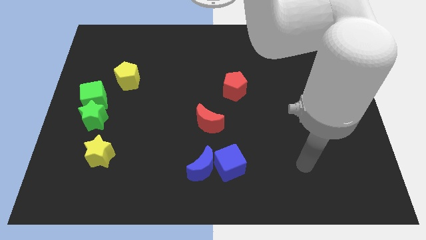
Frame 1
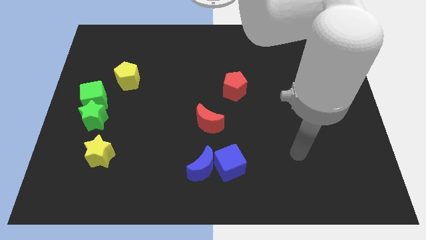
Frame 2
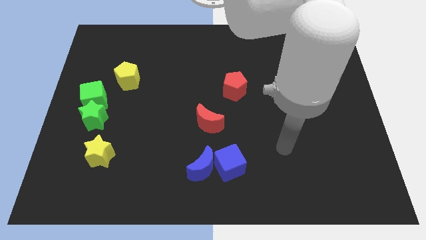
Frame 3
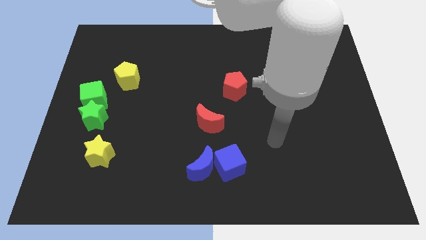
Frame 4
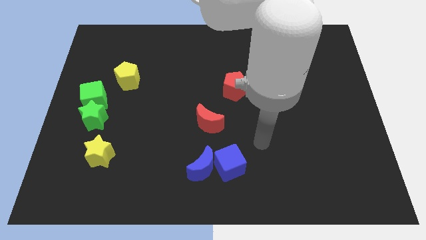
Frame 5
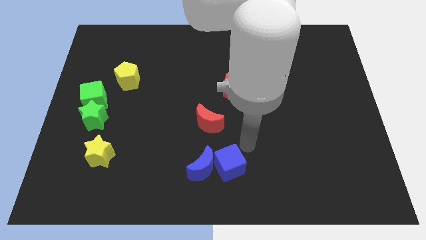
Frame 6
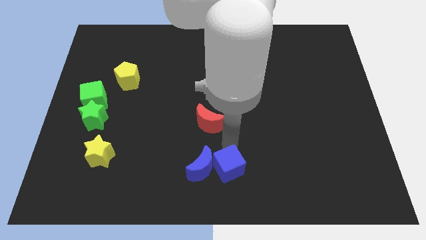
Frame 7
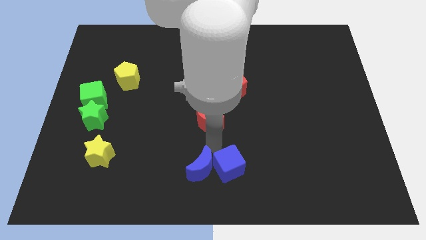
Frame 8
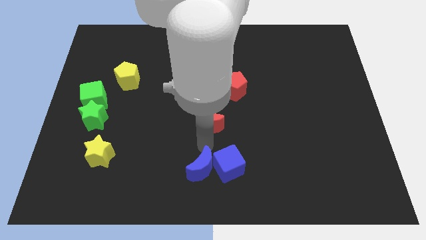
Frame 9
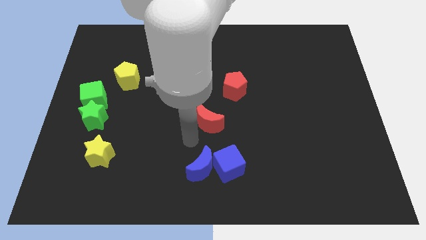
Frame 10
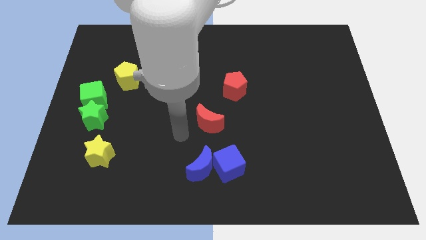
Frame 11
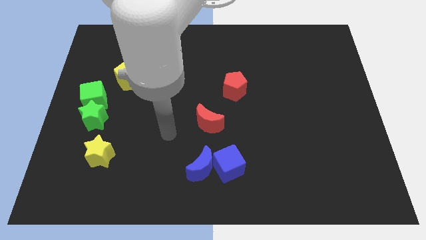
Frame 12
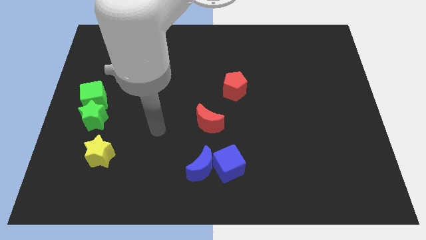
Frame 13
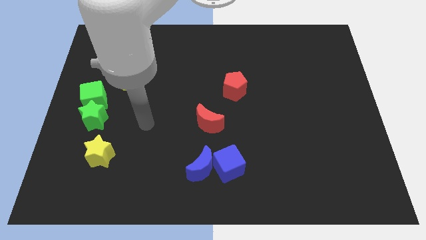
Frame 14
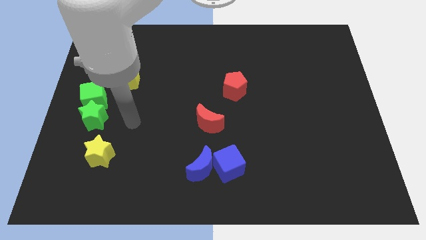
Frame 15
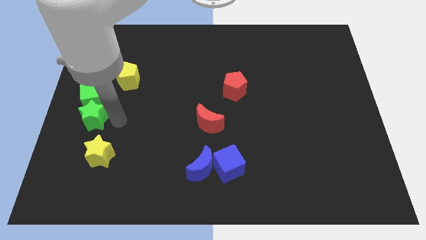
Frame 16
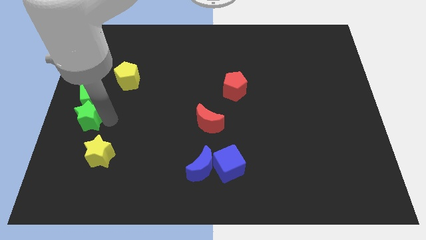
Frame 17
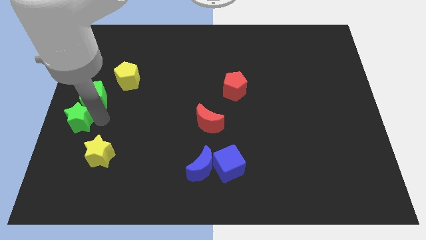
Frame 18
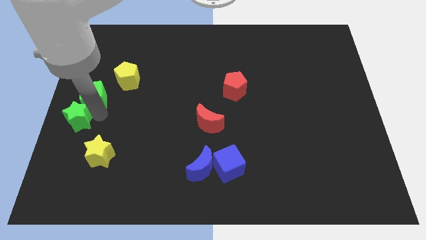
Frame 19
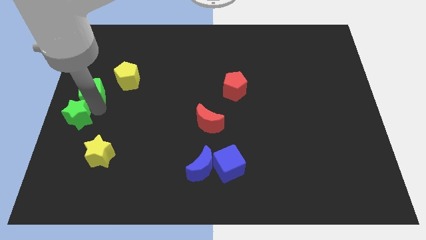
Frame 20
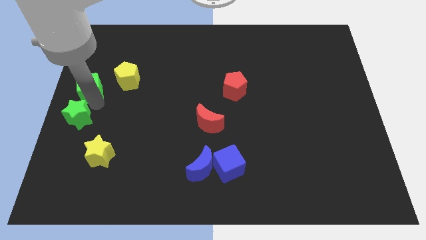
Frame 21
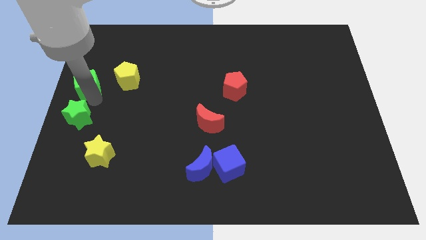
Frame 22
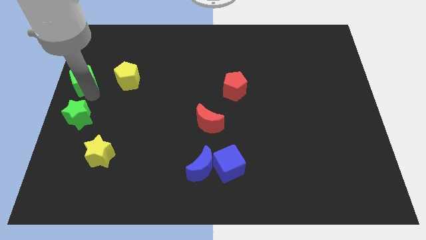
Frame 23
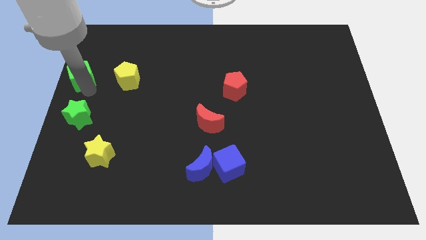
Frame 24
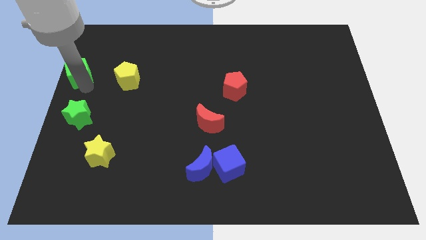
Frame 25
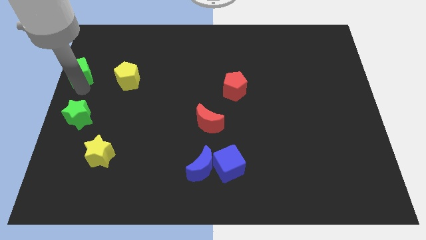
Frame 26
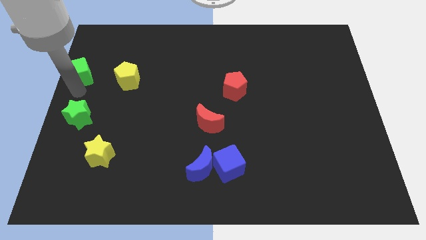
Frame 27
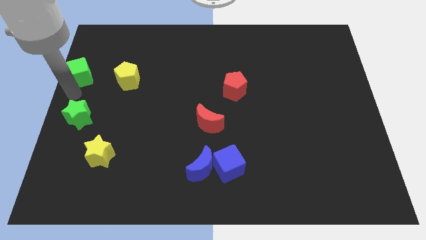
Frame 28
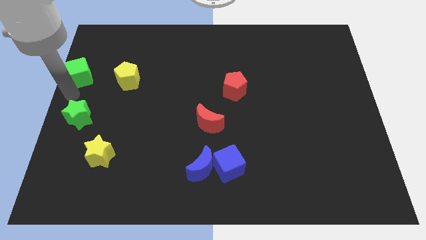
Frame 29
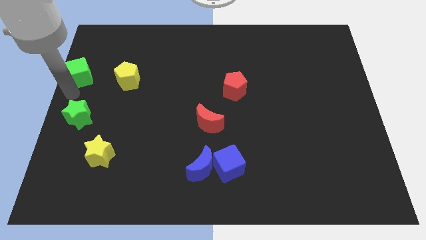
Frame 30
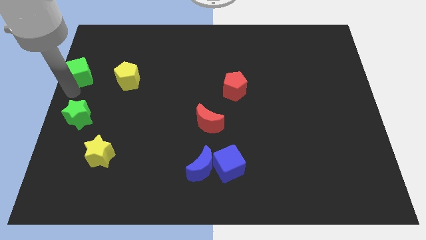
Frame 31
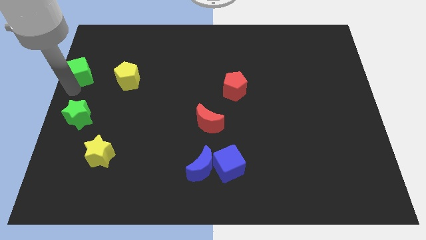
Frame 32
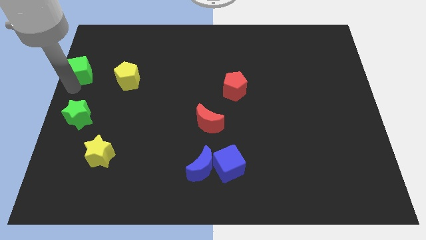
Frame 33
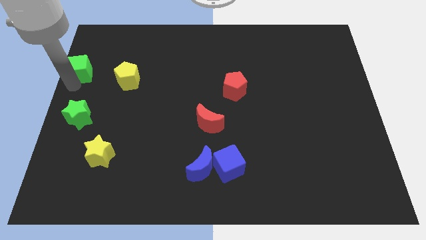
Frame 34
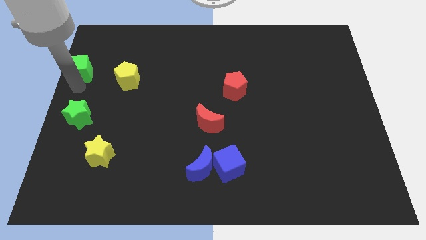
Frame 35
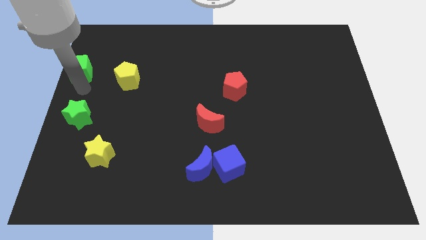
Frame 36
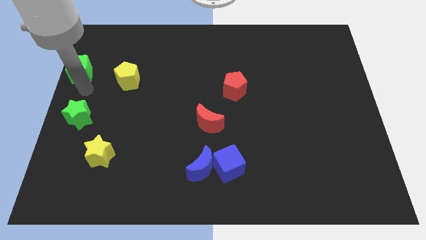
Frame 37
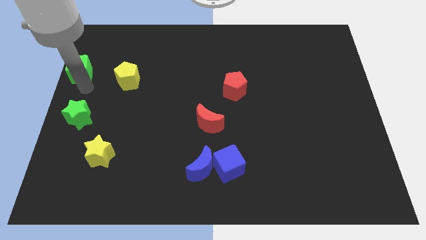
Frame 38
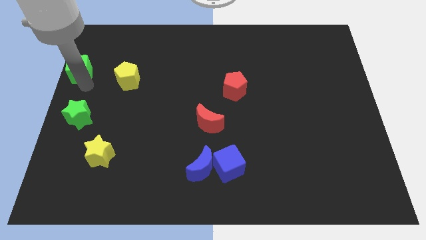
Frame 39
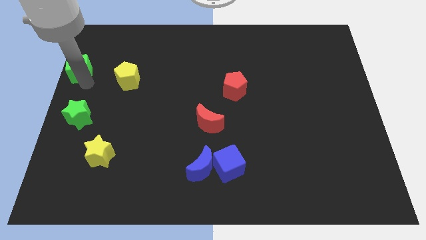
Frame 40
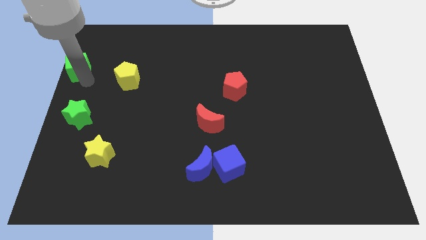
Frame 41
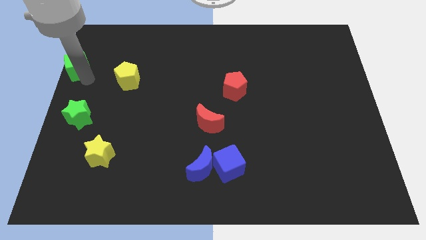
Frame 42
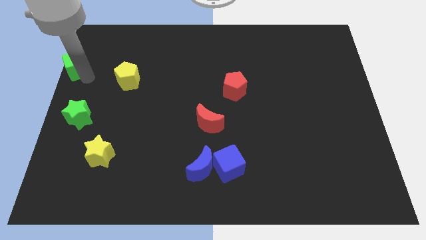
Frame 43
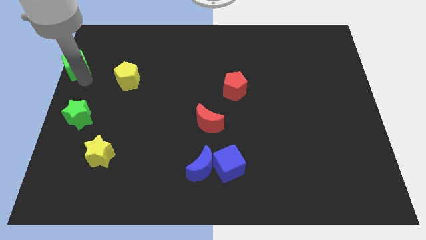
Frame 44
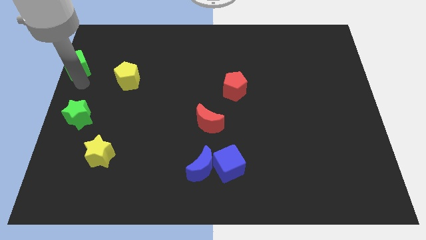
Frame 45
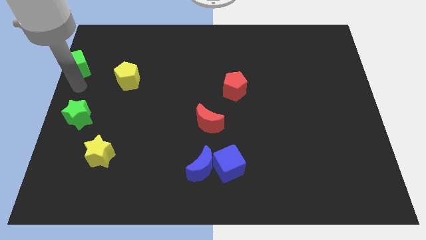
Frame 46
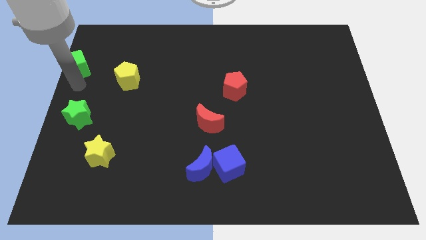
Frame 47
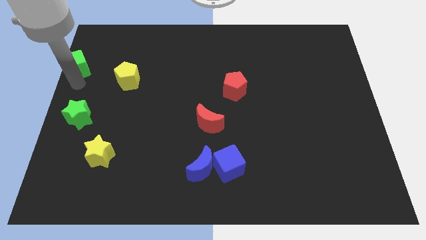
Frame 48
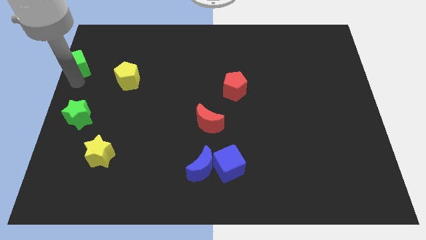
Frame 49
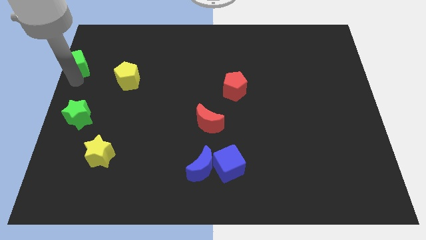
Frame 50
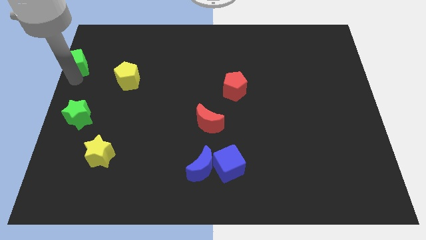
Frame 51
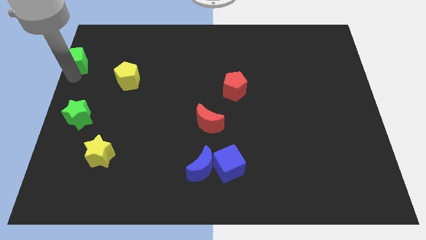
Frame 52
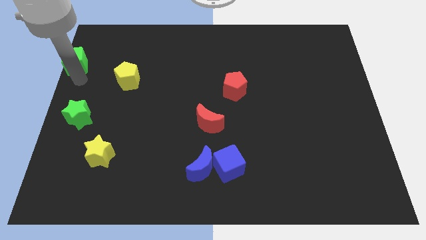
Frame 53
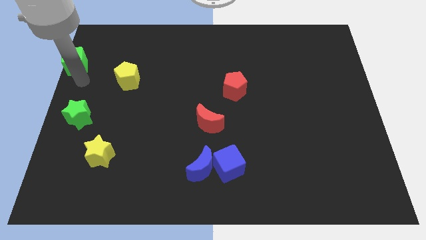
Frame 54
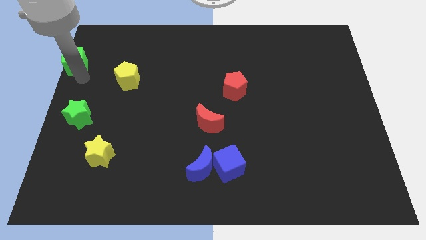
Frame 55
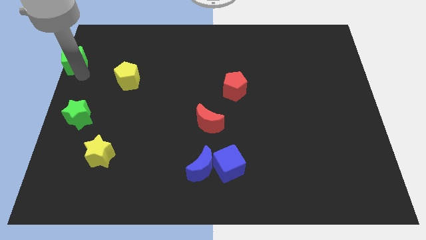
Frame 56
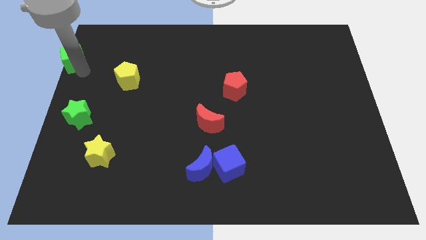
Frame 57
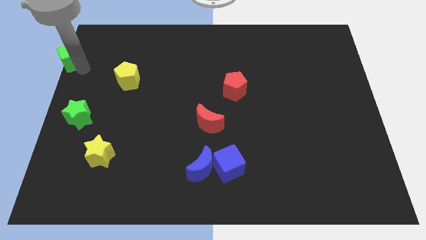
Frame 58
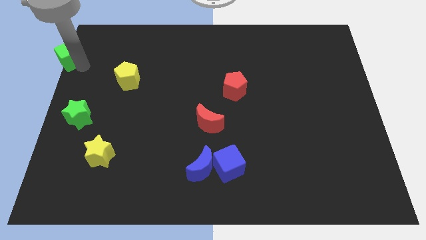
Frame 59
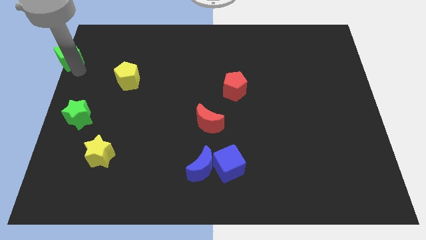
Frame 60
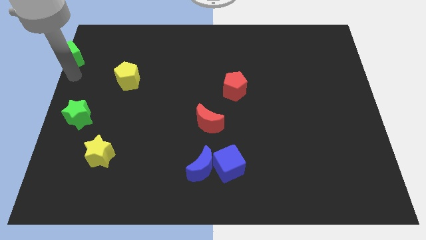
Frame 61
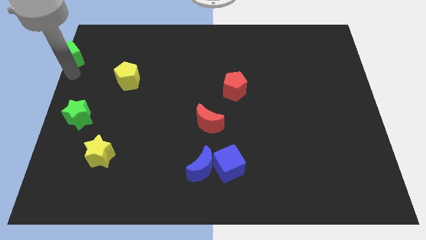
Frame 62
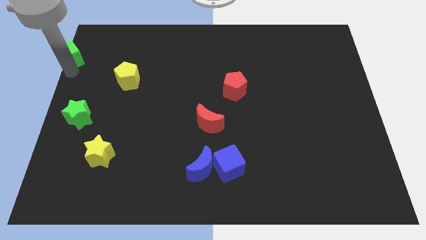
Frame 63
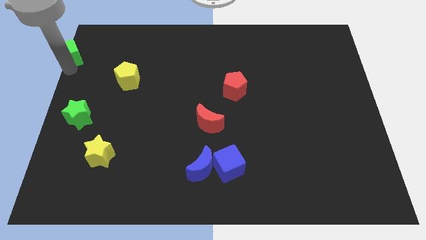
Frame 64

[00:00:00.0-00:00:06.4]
push the green cube to the upper left corner

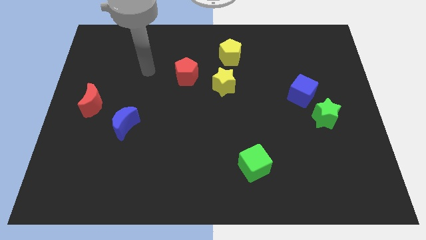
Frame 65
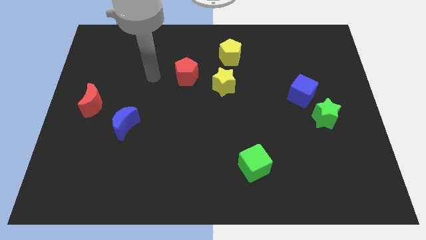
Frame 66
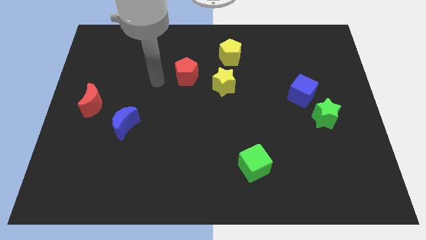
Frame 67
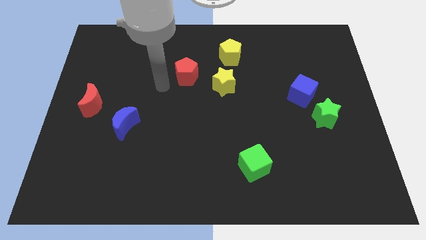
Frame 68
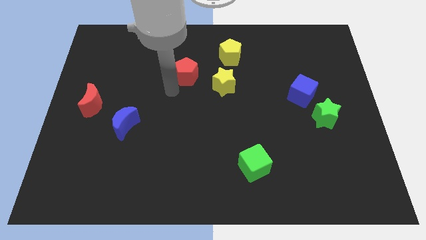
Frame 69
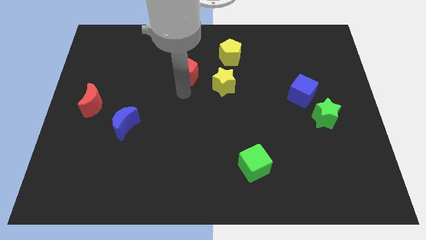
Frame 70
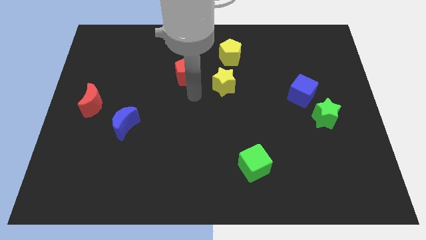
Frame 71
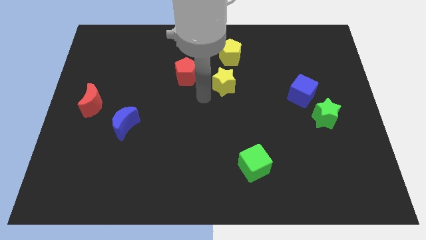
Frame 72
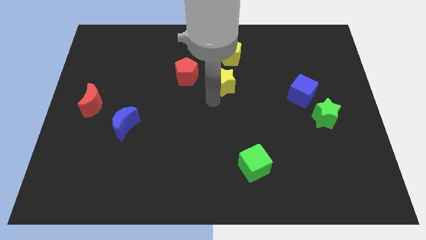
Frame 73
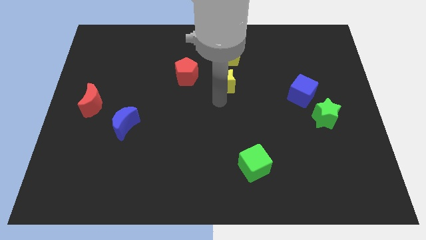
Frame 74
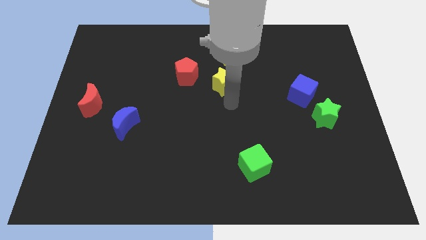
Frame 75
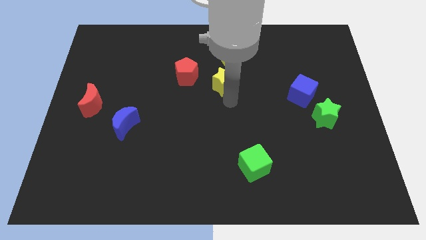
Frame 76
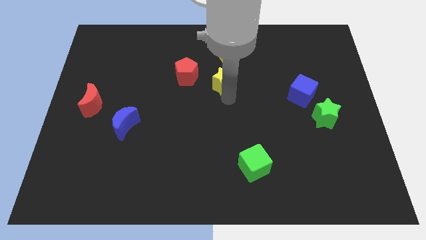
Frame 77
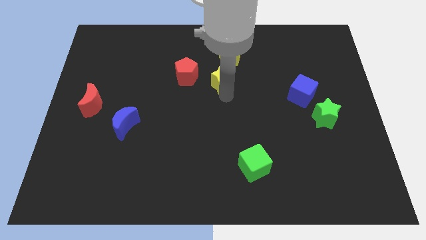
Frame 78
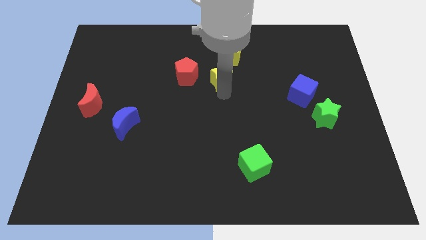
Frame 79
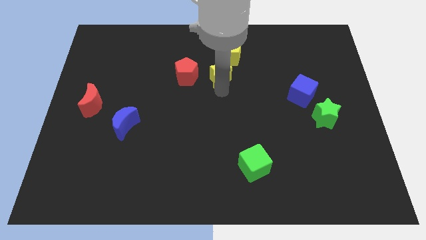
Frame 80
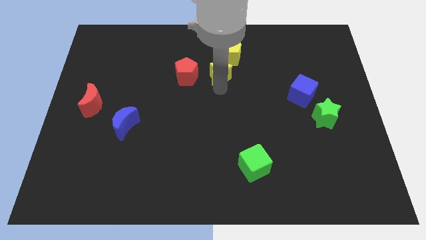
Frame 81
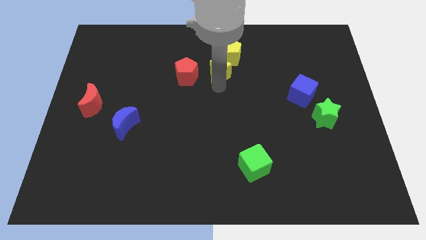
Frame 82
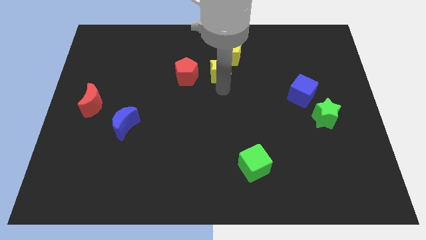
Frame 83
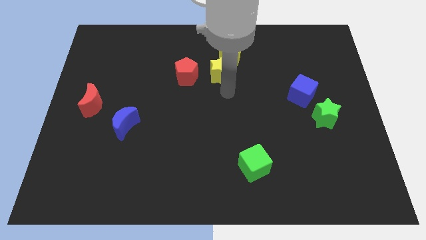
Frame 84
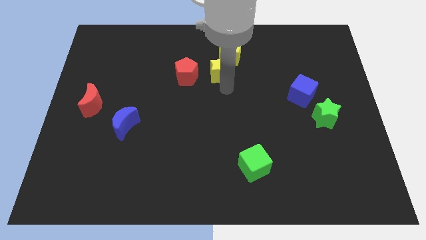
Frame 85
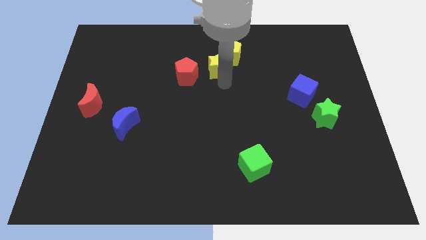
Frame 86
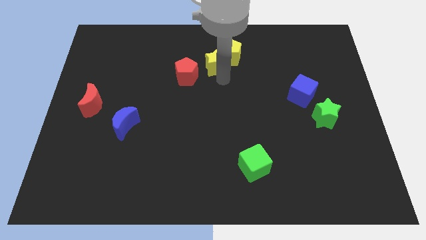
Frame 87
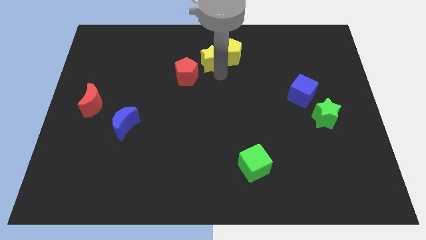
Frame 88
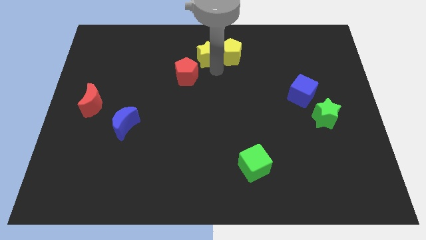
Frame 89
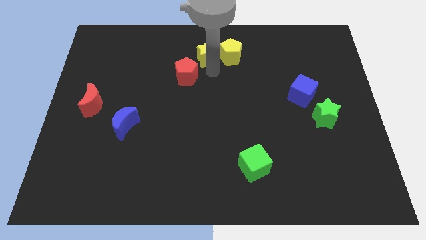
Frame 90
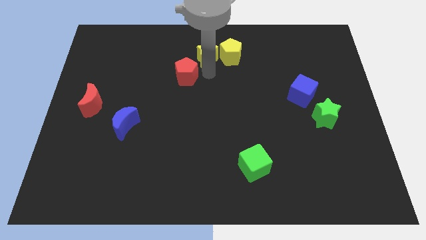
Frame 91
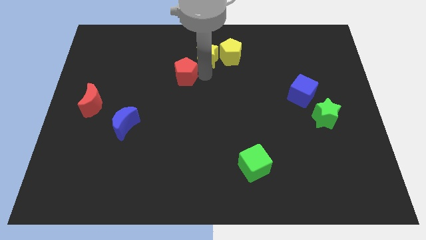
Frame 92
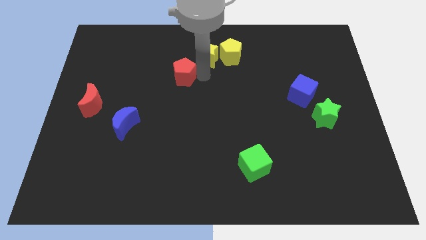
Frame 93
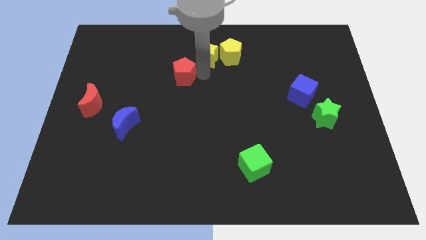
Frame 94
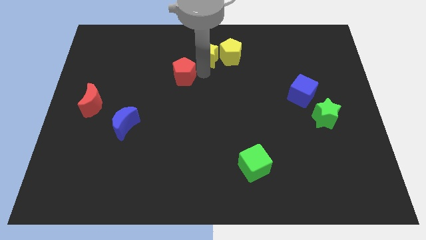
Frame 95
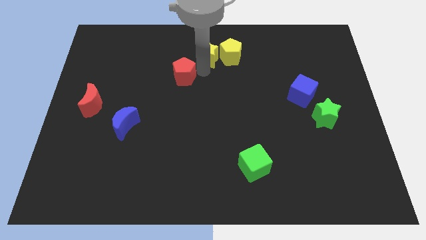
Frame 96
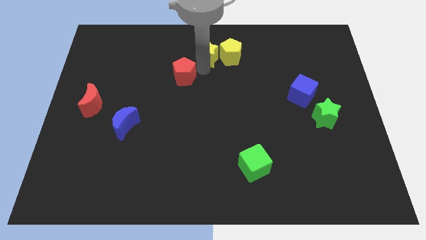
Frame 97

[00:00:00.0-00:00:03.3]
move the yellow star to the towards your base
